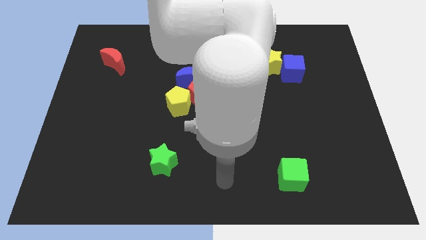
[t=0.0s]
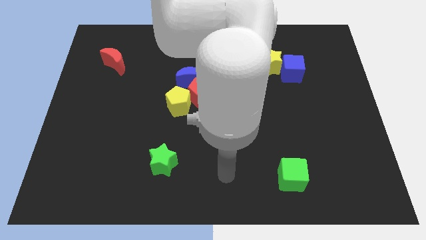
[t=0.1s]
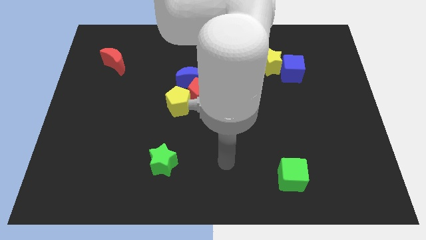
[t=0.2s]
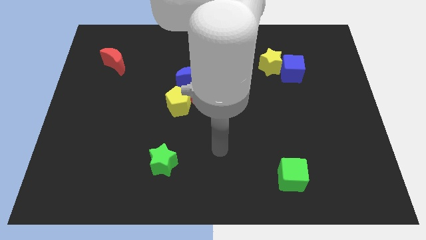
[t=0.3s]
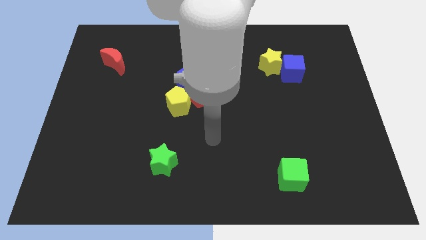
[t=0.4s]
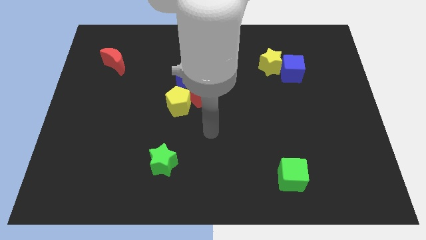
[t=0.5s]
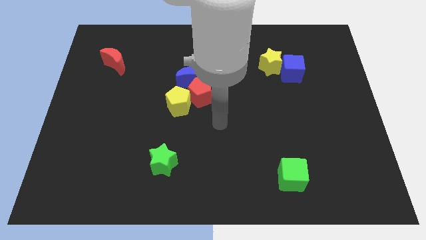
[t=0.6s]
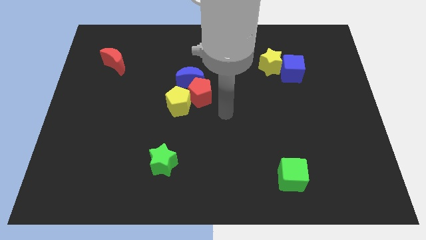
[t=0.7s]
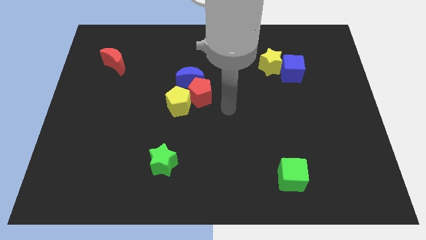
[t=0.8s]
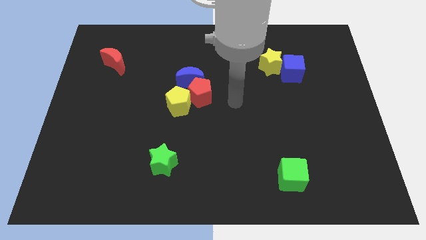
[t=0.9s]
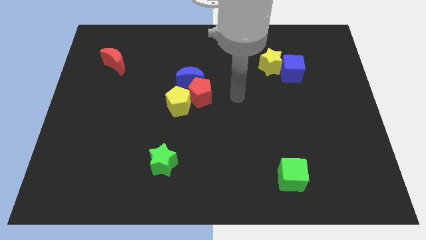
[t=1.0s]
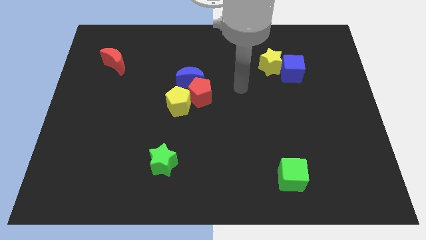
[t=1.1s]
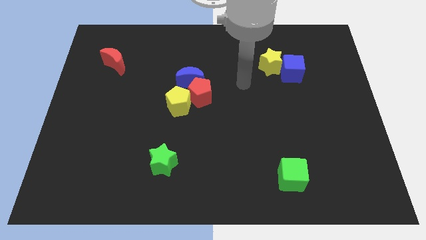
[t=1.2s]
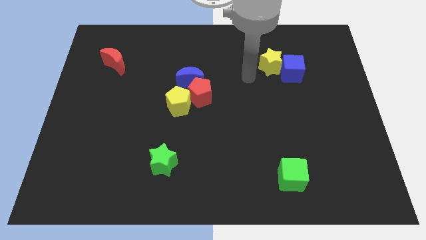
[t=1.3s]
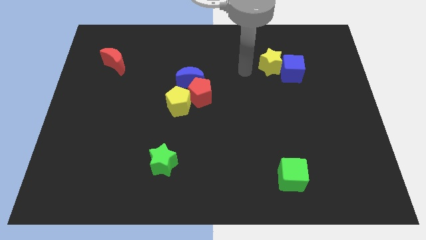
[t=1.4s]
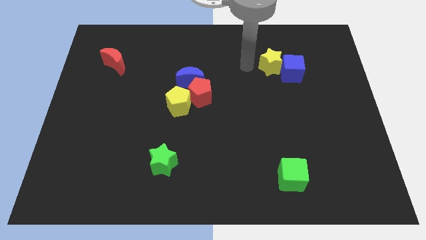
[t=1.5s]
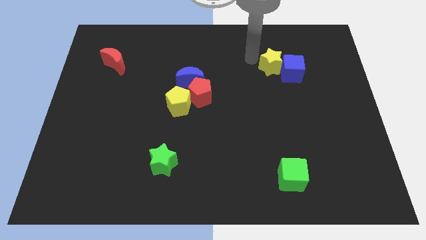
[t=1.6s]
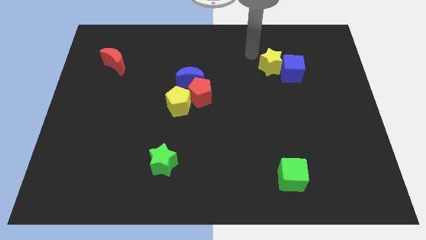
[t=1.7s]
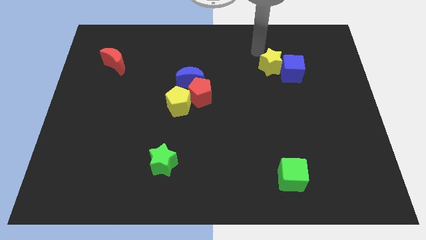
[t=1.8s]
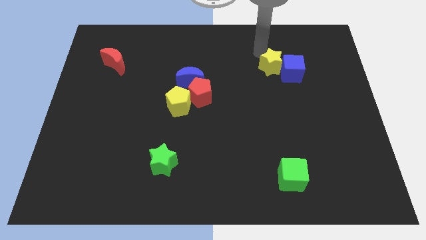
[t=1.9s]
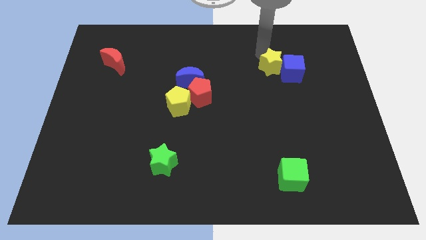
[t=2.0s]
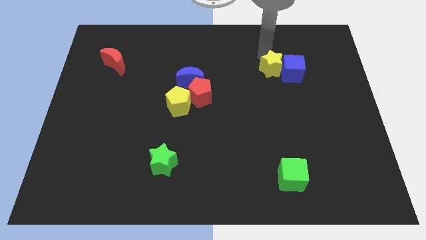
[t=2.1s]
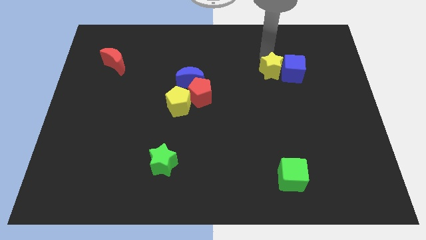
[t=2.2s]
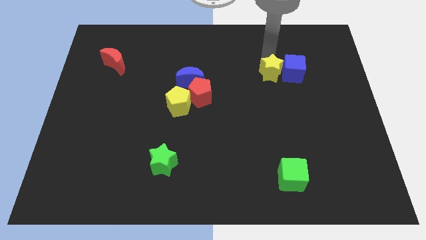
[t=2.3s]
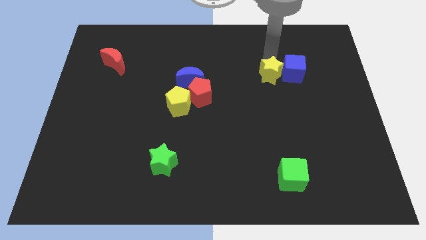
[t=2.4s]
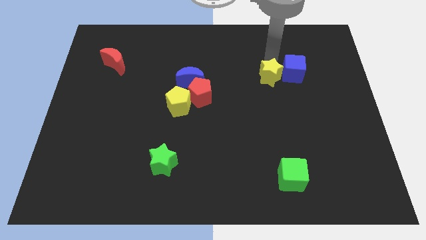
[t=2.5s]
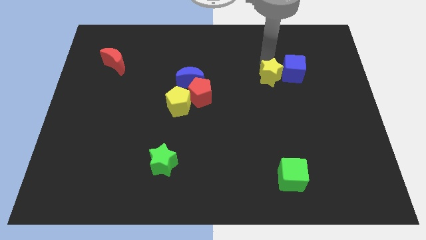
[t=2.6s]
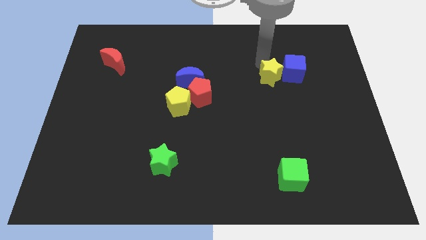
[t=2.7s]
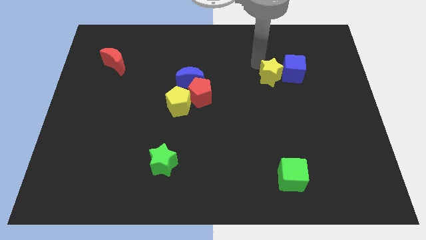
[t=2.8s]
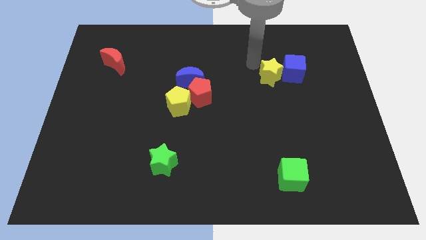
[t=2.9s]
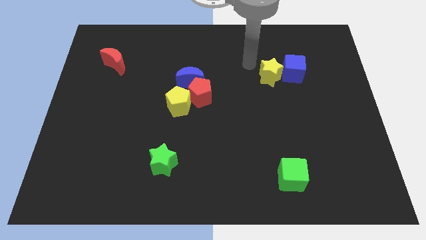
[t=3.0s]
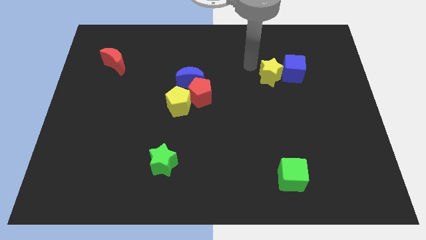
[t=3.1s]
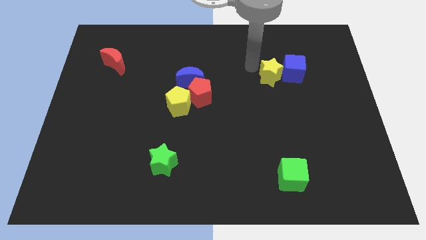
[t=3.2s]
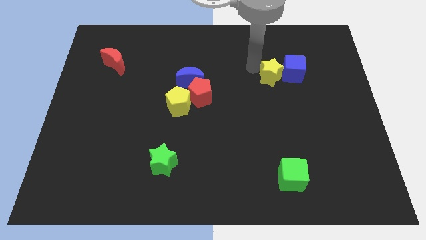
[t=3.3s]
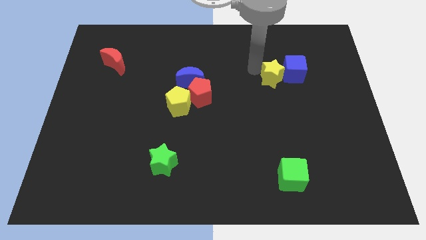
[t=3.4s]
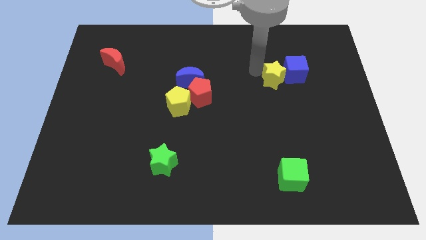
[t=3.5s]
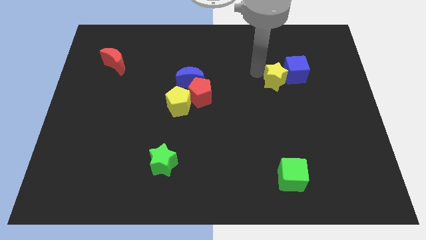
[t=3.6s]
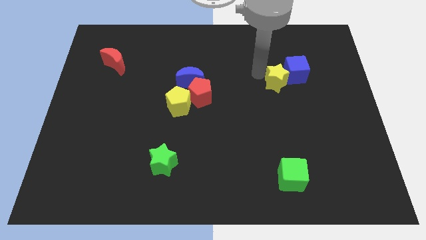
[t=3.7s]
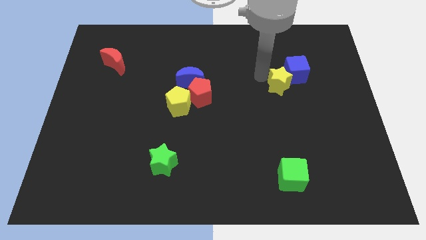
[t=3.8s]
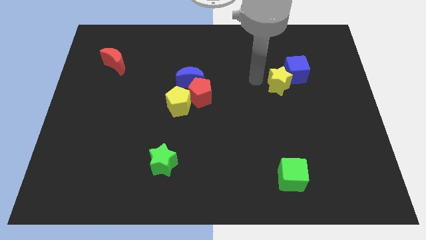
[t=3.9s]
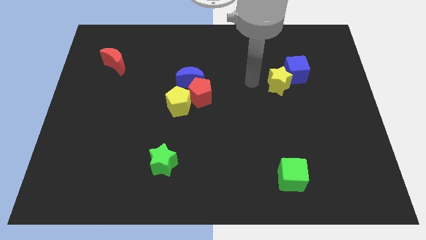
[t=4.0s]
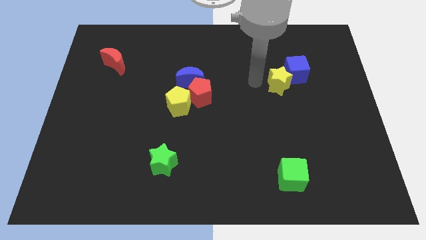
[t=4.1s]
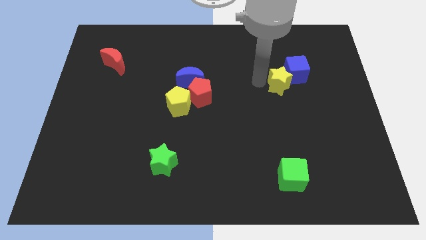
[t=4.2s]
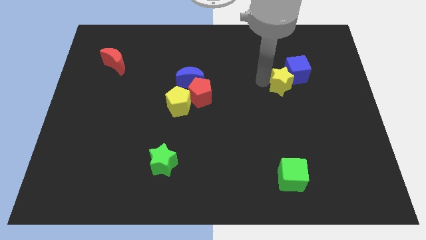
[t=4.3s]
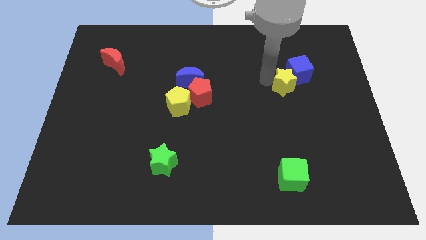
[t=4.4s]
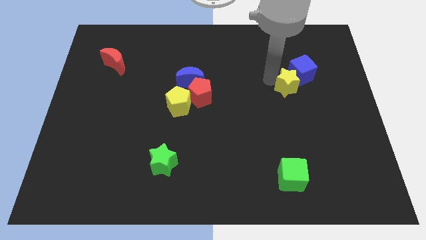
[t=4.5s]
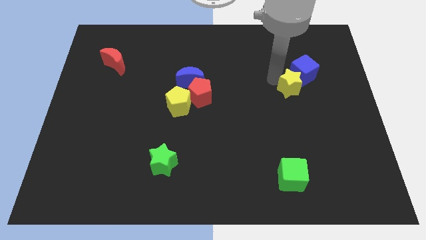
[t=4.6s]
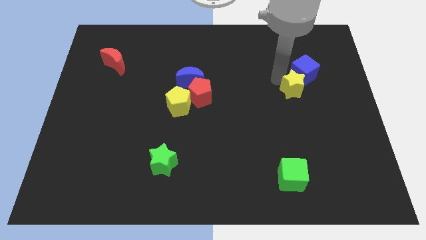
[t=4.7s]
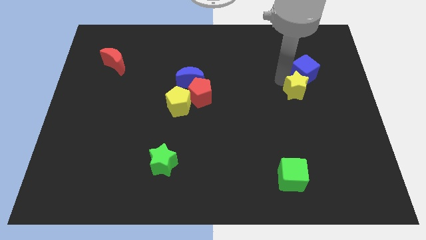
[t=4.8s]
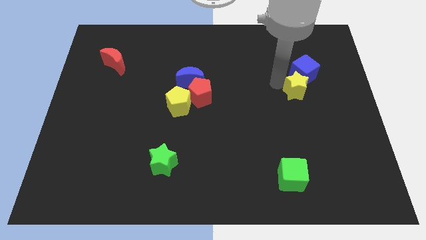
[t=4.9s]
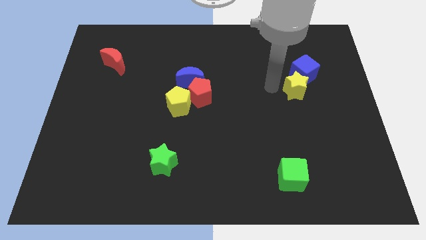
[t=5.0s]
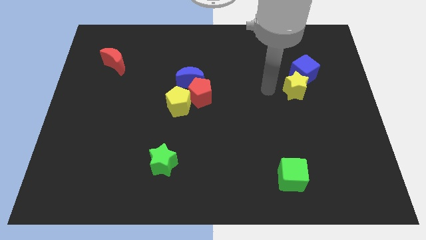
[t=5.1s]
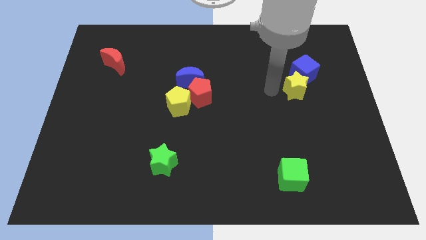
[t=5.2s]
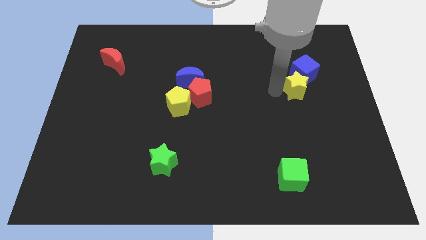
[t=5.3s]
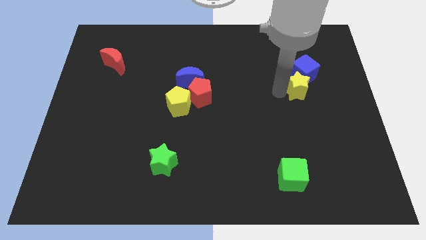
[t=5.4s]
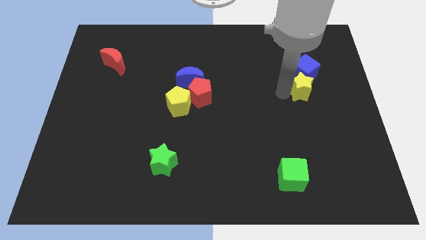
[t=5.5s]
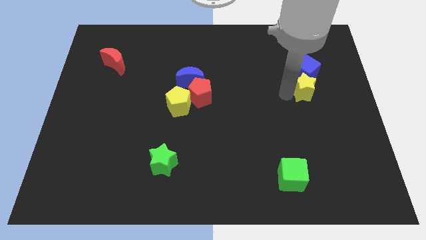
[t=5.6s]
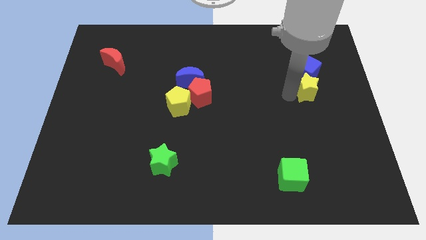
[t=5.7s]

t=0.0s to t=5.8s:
push the yellow star to the bottom right of the blue cube

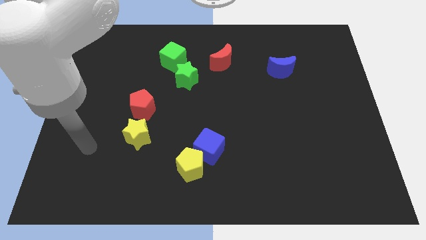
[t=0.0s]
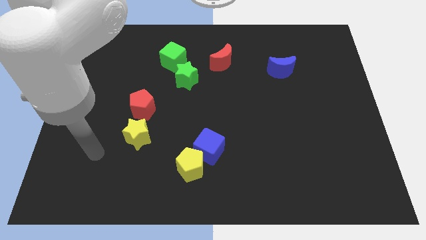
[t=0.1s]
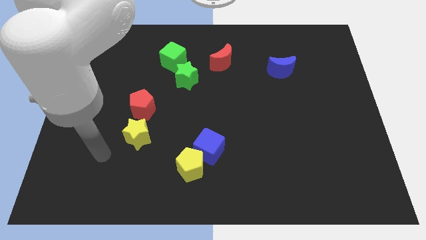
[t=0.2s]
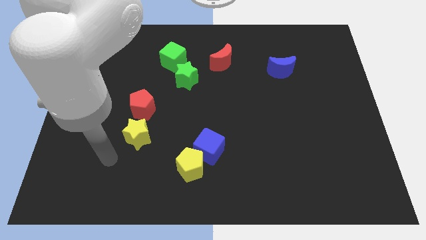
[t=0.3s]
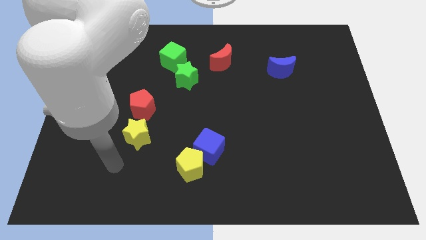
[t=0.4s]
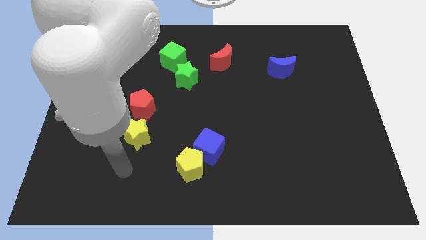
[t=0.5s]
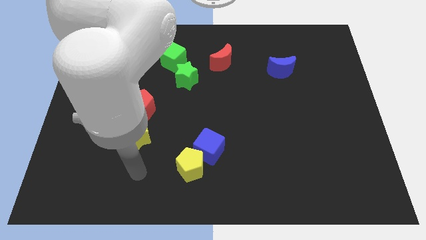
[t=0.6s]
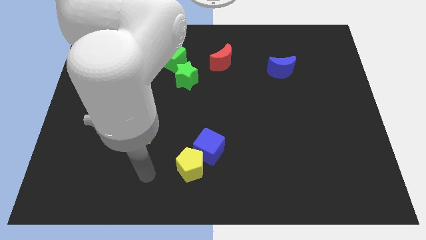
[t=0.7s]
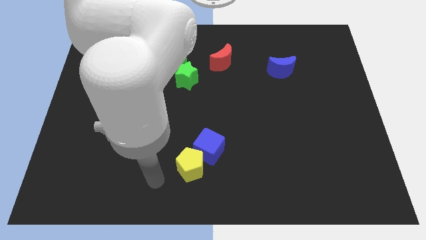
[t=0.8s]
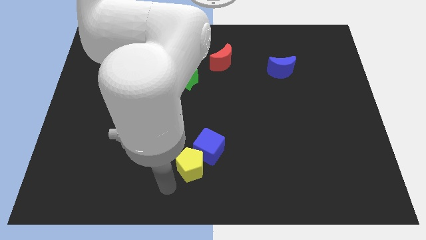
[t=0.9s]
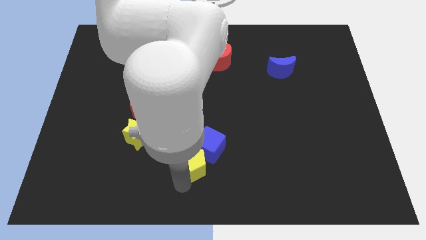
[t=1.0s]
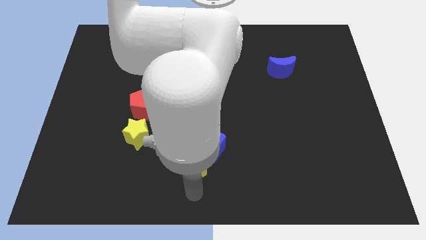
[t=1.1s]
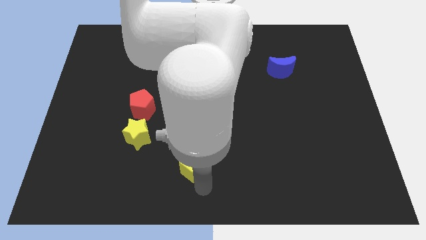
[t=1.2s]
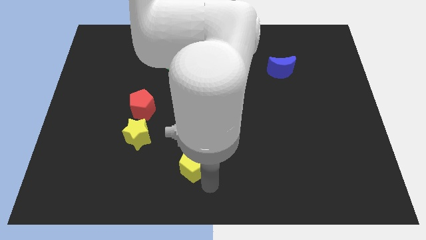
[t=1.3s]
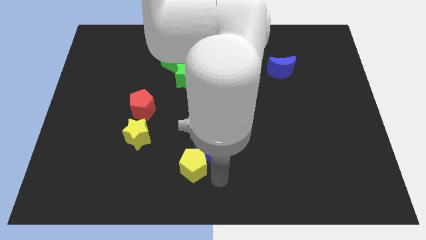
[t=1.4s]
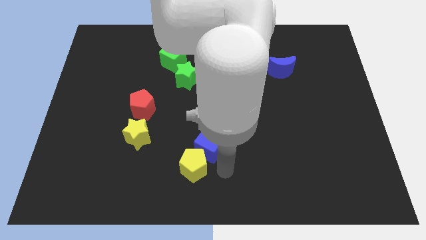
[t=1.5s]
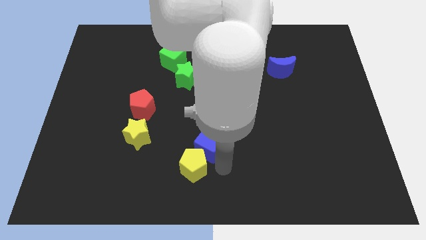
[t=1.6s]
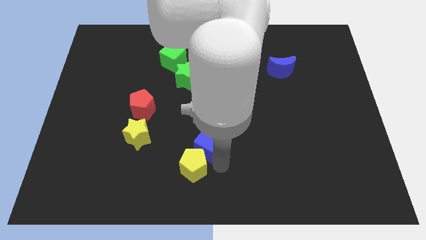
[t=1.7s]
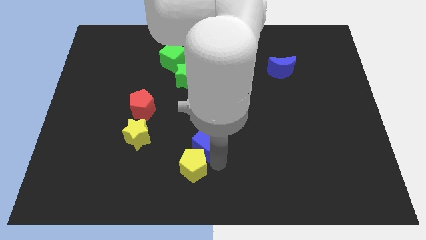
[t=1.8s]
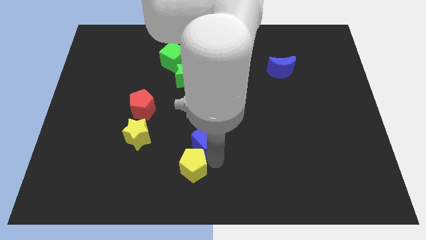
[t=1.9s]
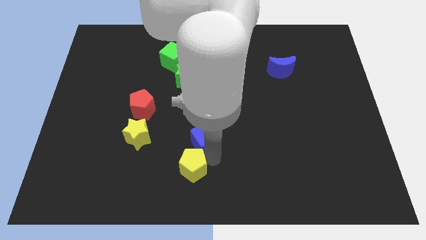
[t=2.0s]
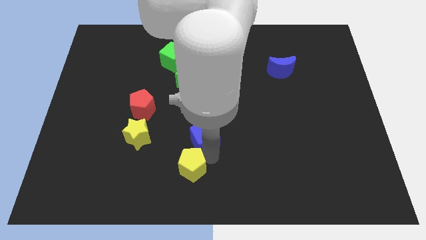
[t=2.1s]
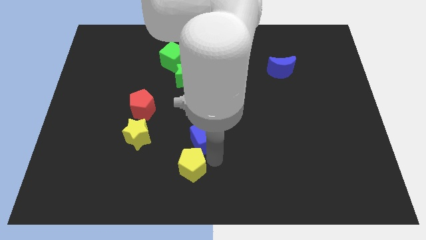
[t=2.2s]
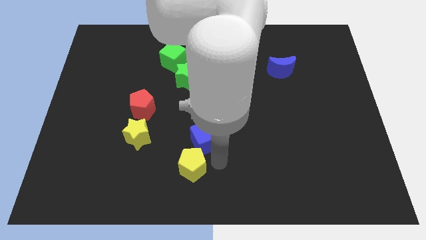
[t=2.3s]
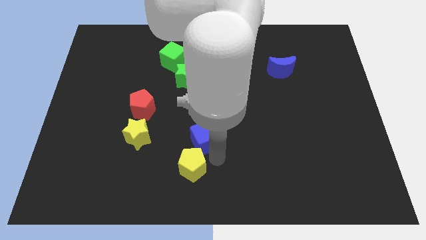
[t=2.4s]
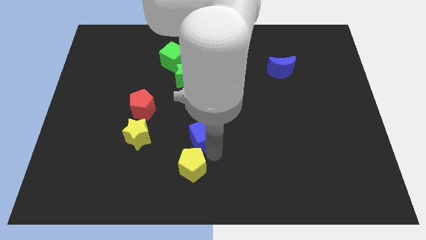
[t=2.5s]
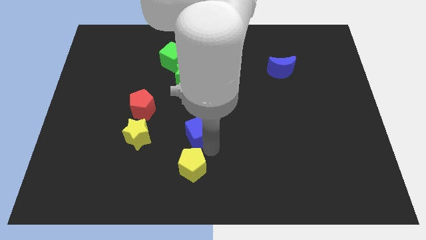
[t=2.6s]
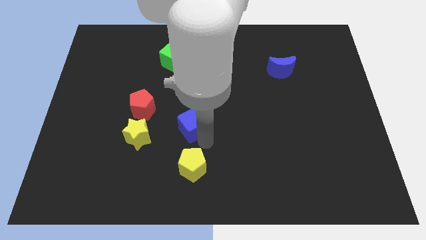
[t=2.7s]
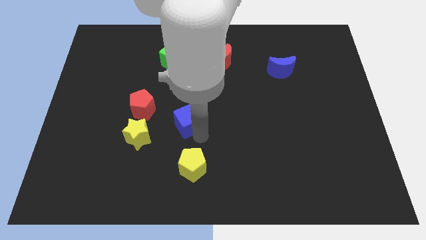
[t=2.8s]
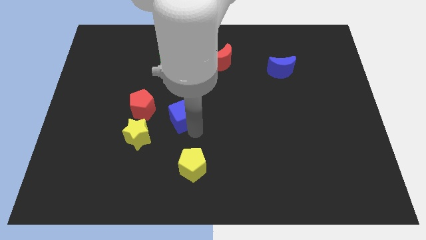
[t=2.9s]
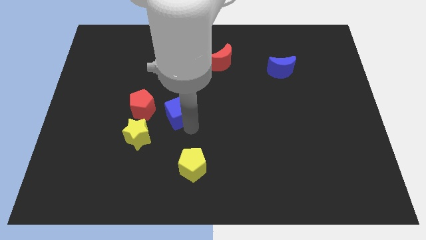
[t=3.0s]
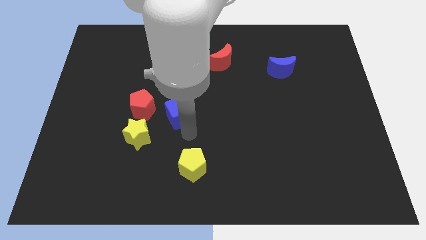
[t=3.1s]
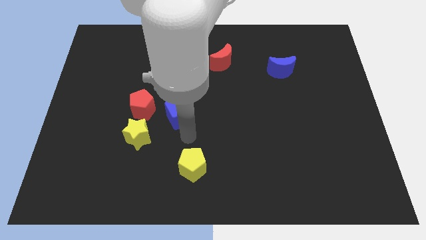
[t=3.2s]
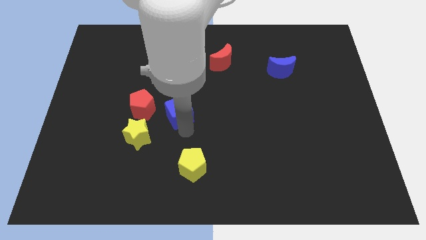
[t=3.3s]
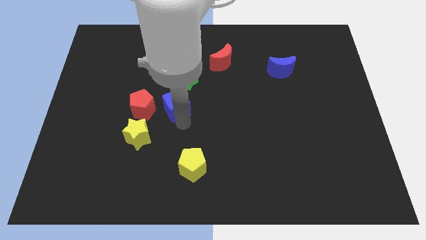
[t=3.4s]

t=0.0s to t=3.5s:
slide the blue cube below the green cube
